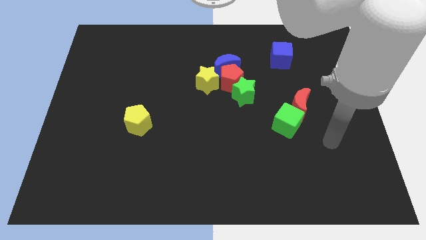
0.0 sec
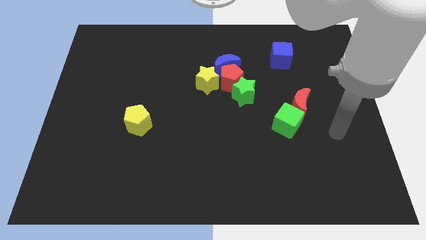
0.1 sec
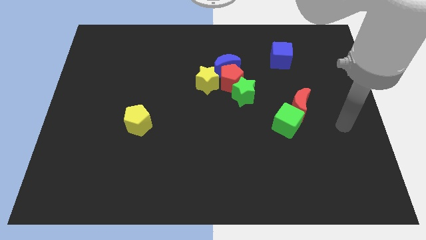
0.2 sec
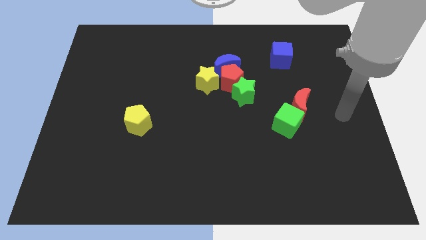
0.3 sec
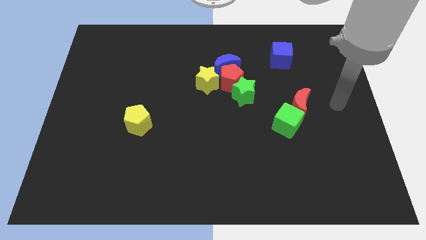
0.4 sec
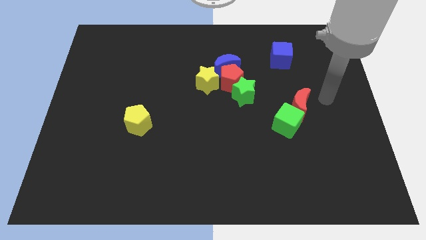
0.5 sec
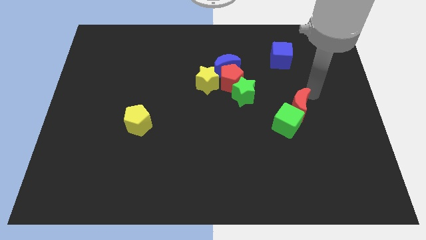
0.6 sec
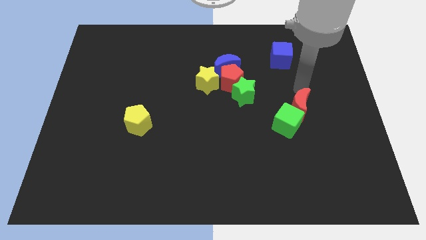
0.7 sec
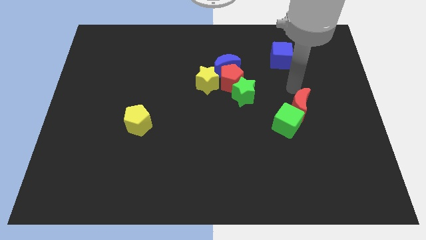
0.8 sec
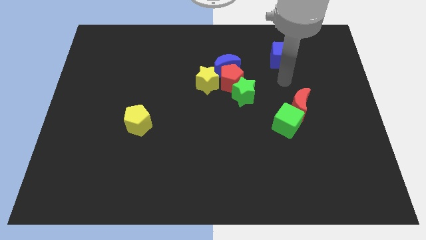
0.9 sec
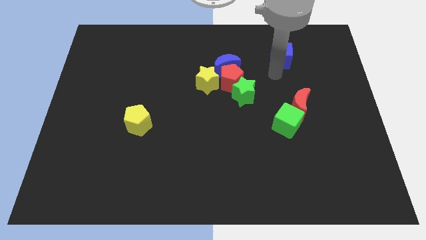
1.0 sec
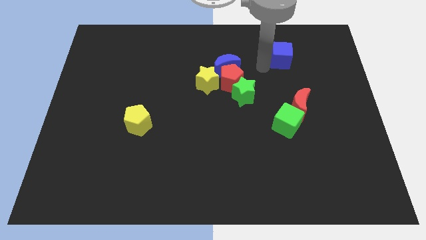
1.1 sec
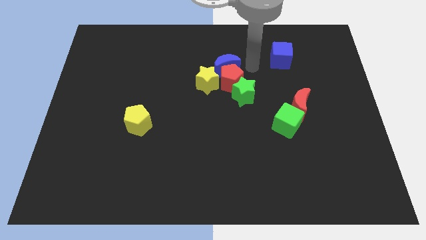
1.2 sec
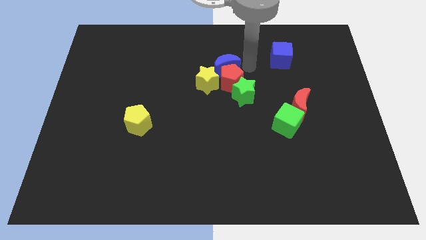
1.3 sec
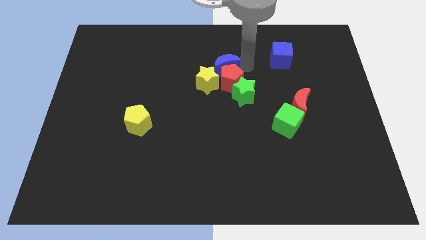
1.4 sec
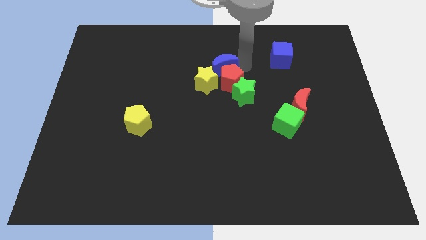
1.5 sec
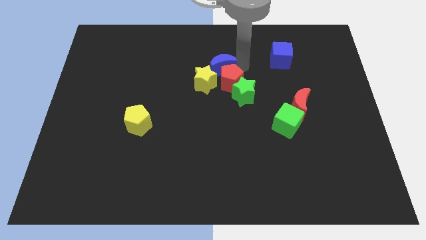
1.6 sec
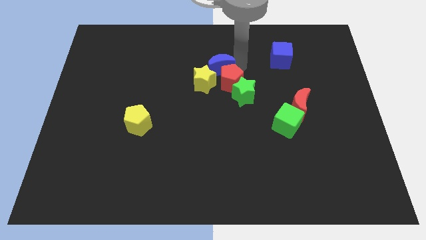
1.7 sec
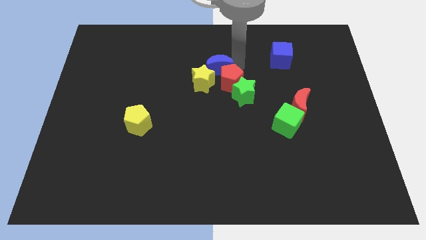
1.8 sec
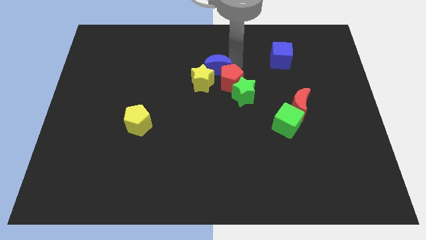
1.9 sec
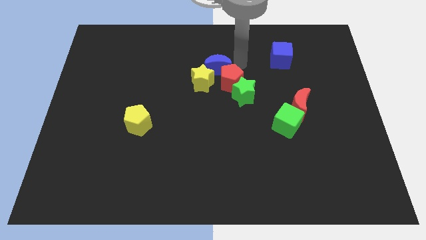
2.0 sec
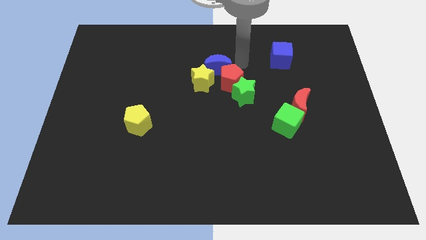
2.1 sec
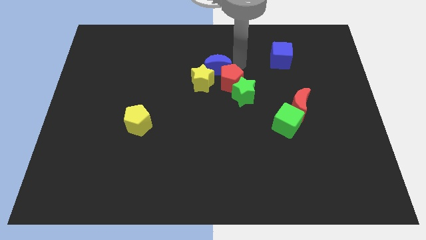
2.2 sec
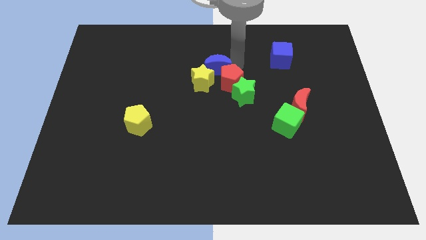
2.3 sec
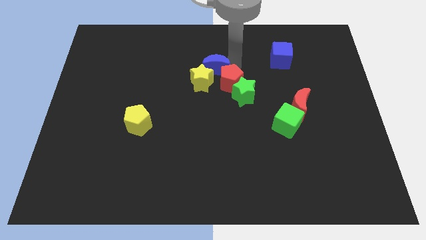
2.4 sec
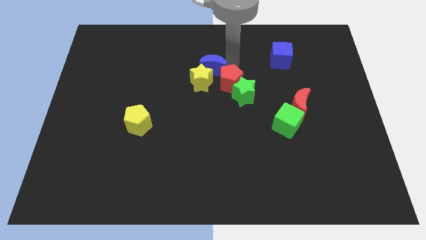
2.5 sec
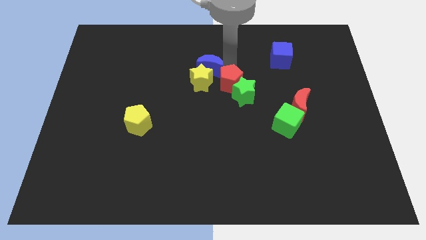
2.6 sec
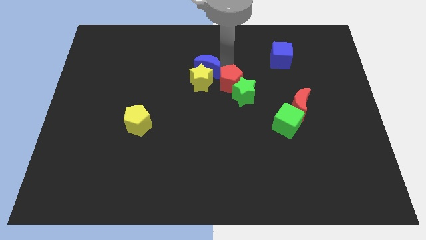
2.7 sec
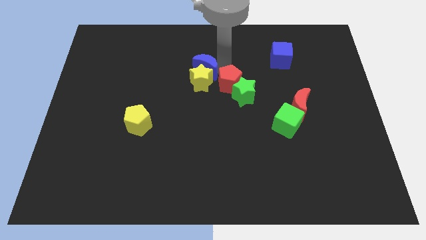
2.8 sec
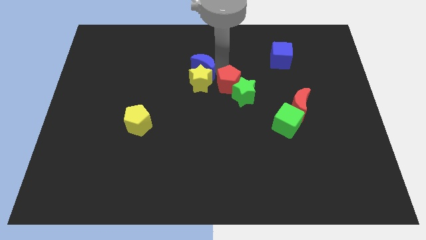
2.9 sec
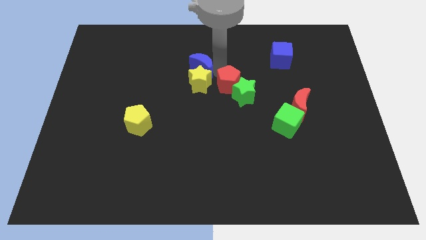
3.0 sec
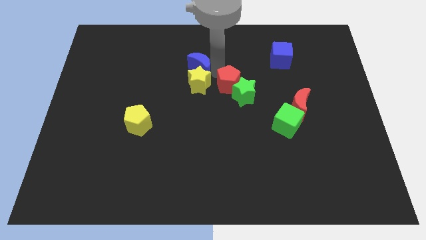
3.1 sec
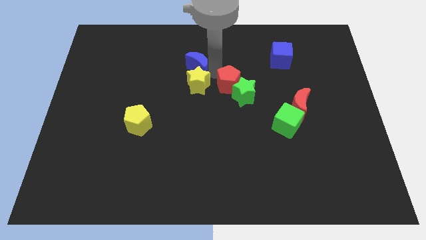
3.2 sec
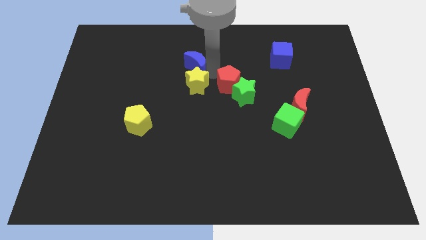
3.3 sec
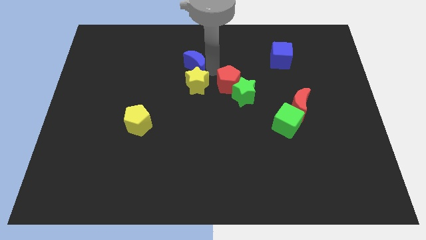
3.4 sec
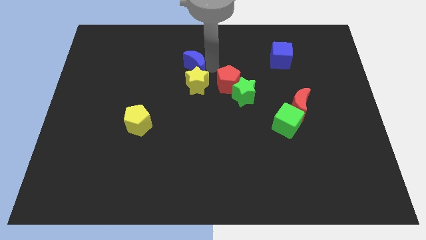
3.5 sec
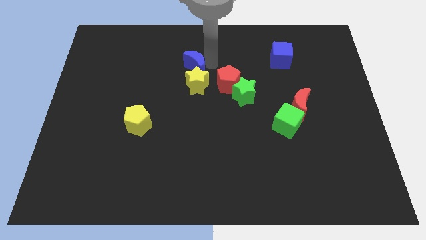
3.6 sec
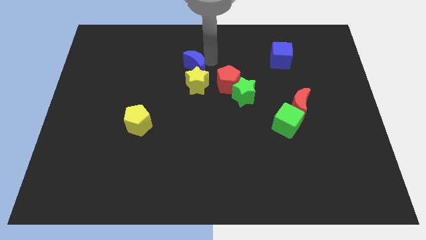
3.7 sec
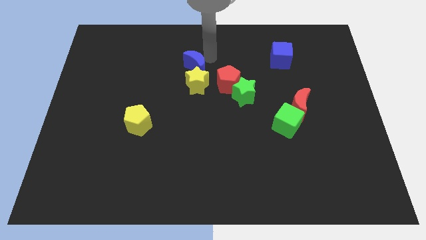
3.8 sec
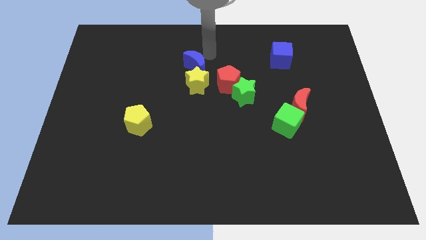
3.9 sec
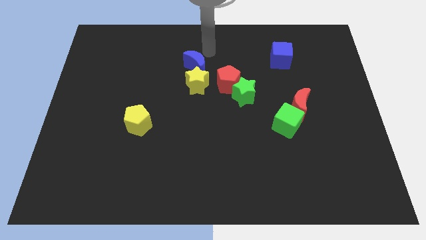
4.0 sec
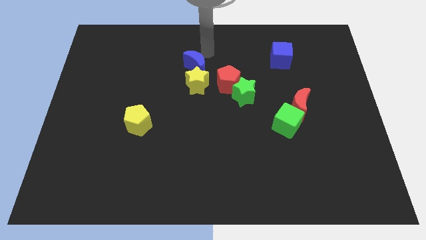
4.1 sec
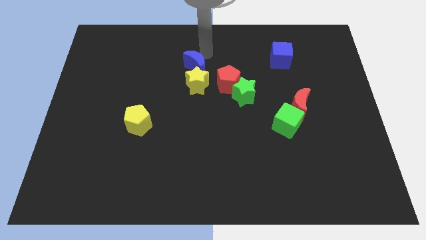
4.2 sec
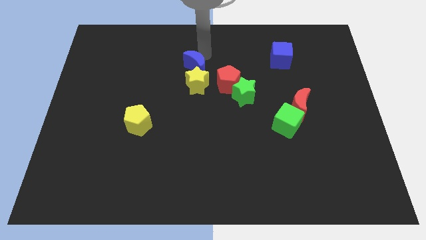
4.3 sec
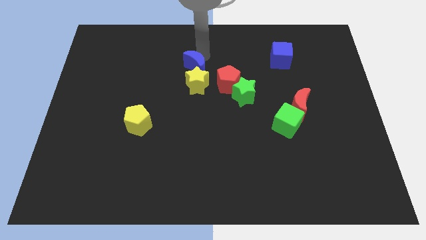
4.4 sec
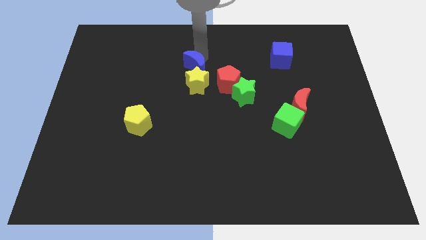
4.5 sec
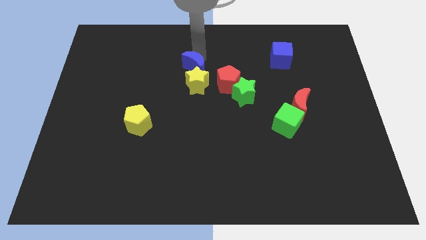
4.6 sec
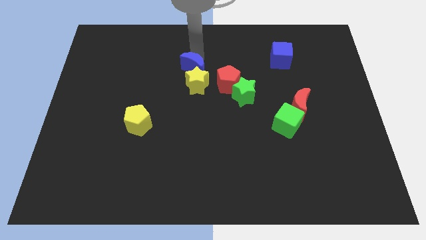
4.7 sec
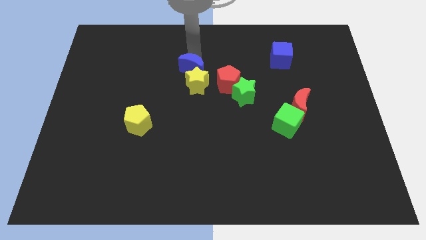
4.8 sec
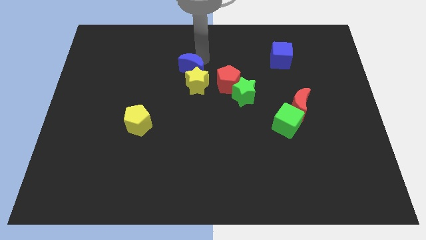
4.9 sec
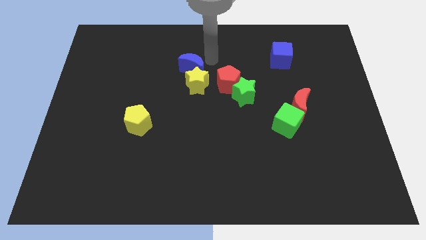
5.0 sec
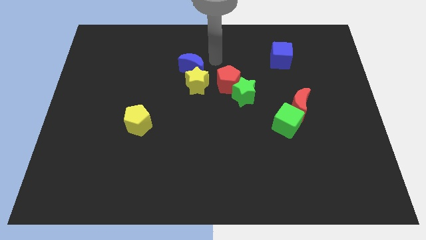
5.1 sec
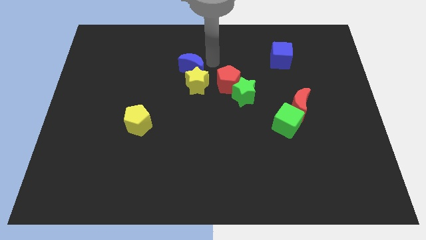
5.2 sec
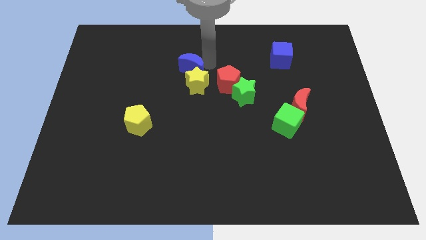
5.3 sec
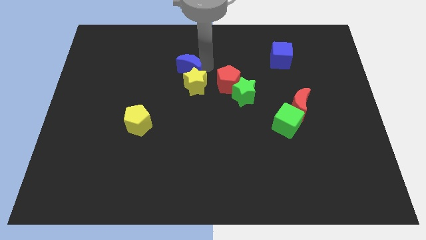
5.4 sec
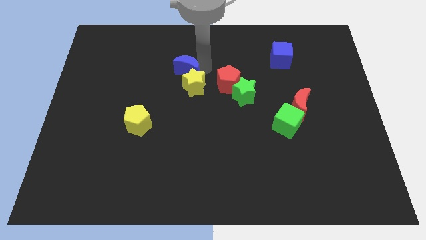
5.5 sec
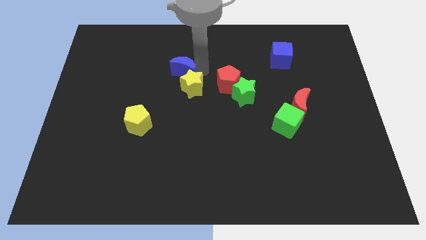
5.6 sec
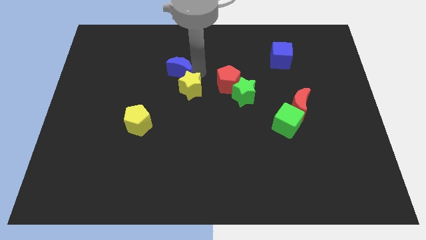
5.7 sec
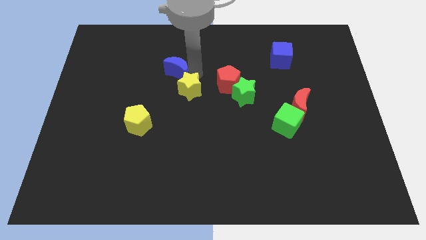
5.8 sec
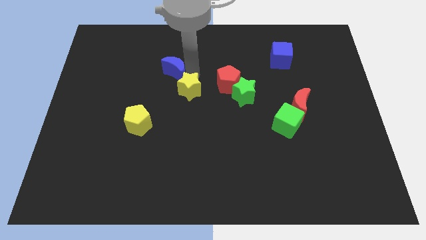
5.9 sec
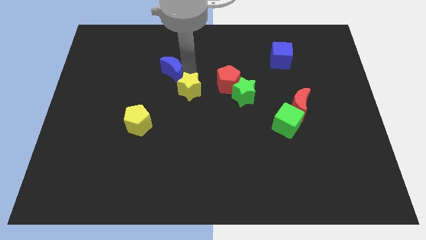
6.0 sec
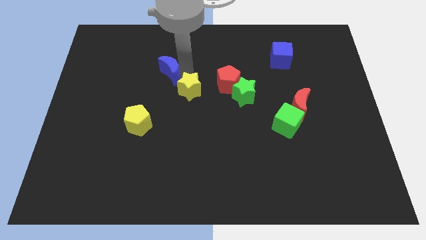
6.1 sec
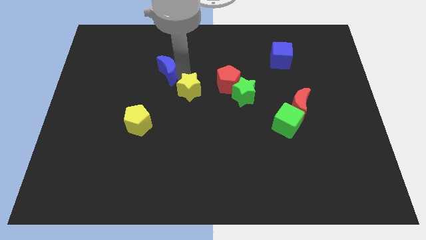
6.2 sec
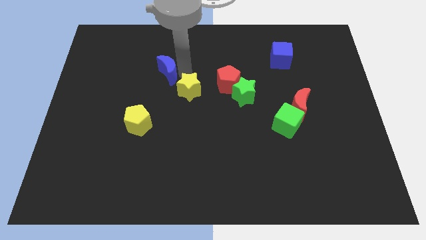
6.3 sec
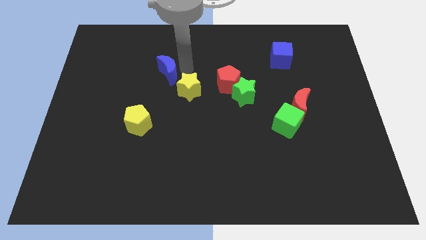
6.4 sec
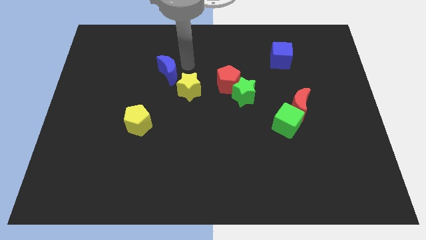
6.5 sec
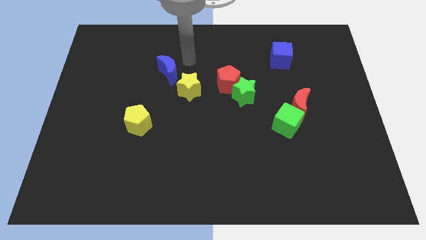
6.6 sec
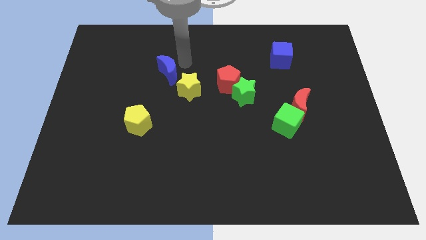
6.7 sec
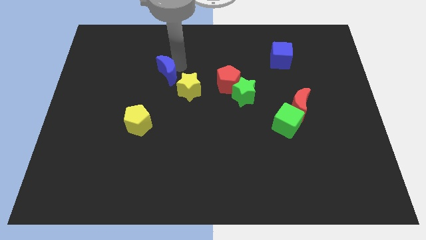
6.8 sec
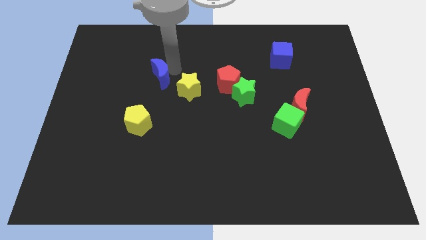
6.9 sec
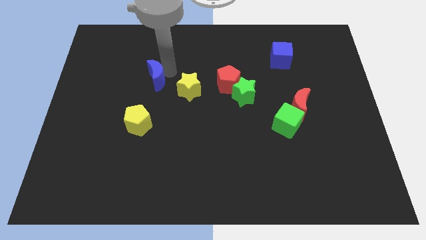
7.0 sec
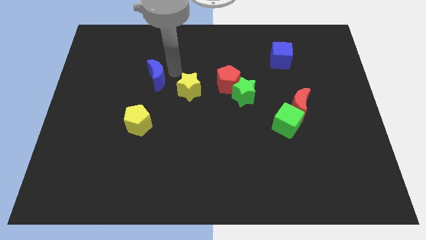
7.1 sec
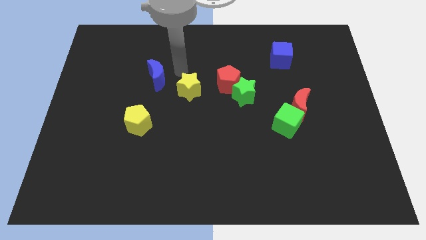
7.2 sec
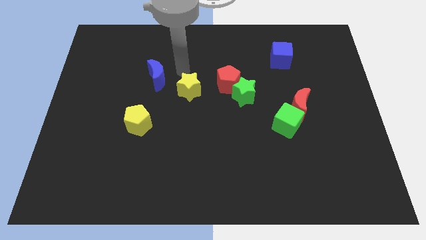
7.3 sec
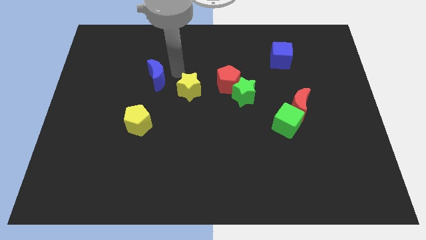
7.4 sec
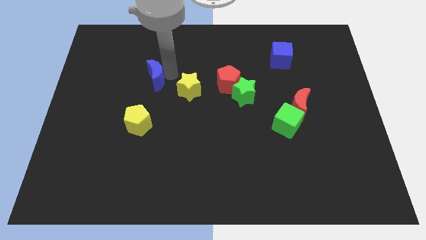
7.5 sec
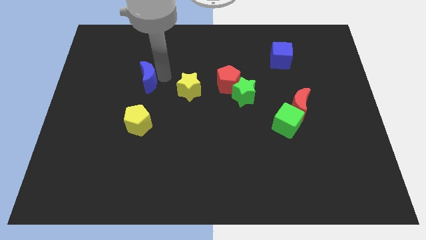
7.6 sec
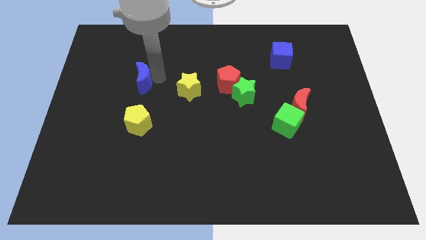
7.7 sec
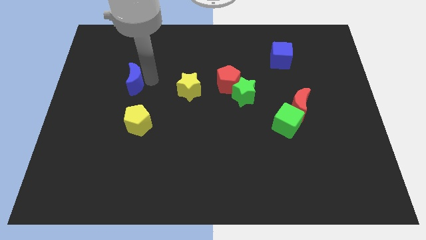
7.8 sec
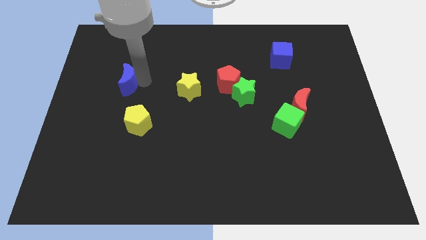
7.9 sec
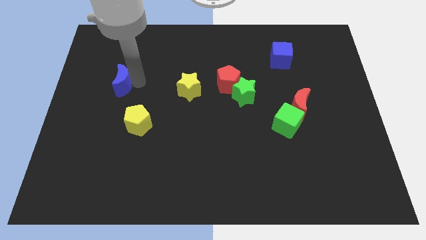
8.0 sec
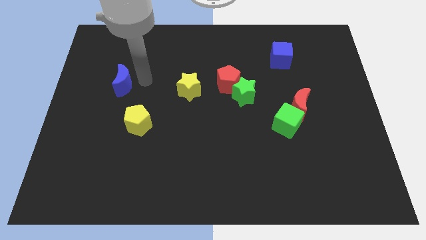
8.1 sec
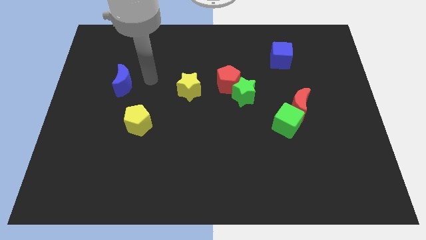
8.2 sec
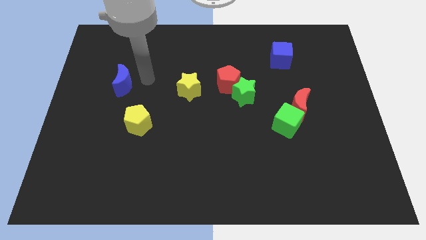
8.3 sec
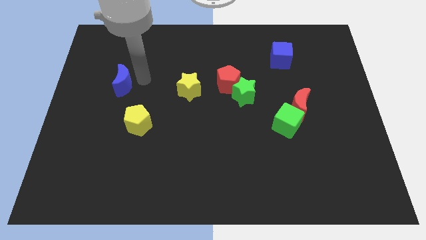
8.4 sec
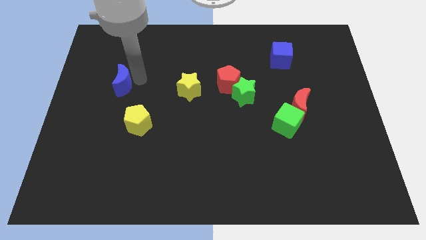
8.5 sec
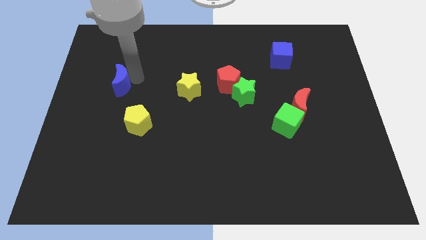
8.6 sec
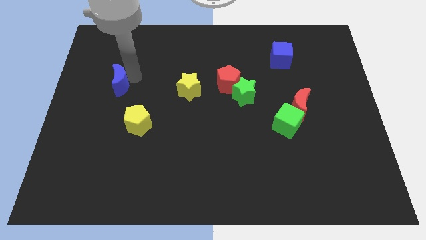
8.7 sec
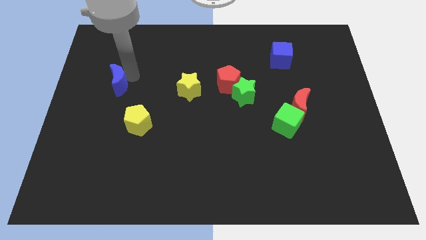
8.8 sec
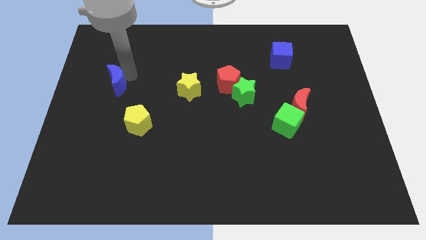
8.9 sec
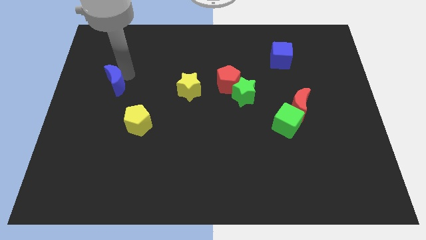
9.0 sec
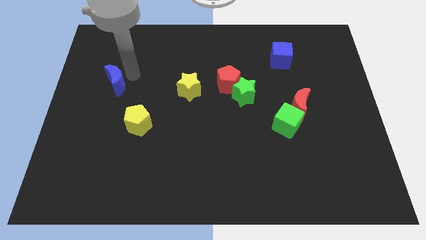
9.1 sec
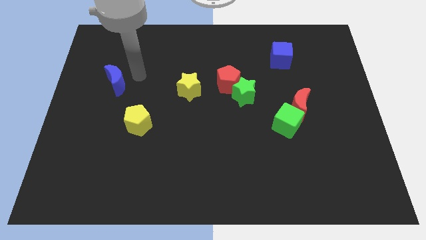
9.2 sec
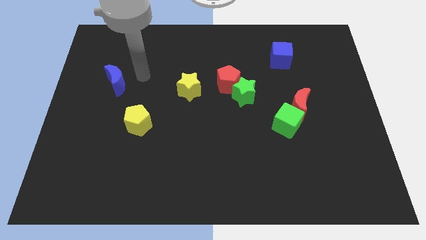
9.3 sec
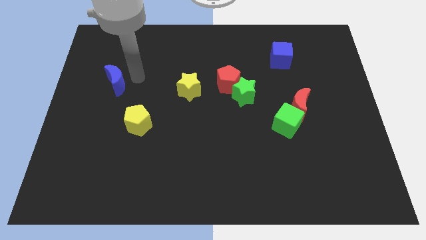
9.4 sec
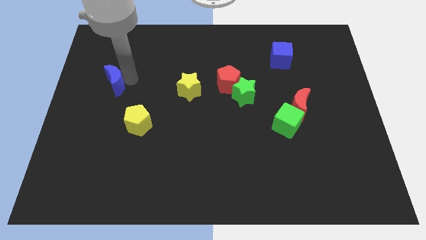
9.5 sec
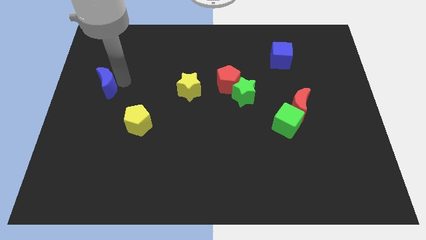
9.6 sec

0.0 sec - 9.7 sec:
move the blue moon to the left side of the board
